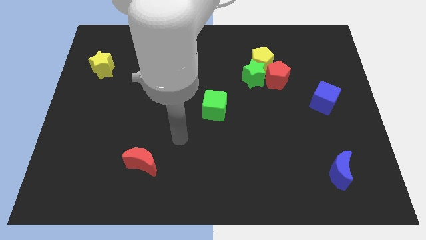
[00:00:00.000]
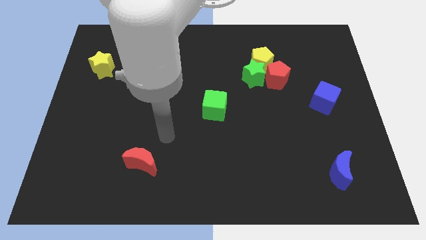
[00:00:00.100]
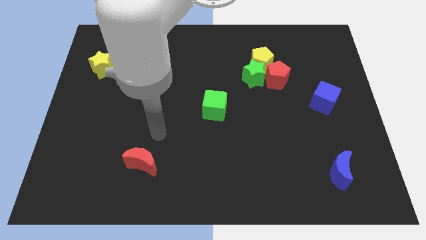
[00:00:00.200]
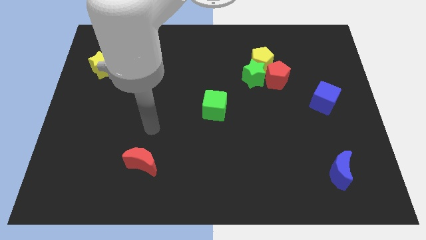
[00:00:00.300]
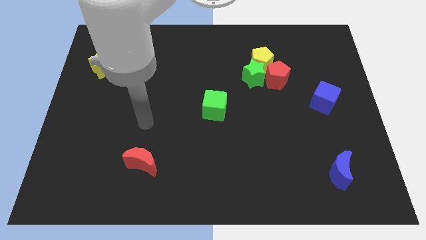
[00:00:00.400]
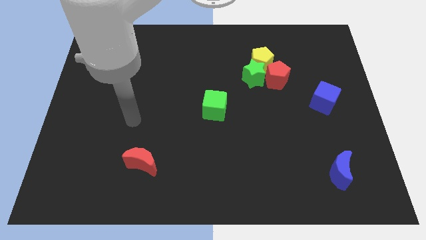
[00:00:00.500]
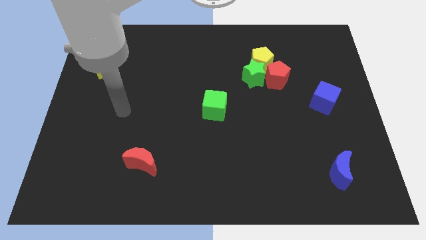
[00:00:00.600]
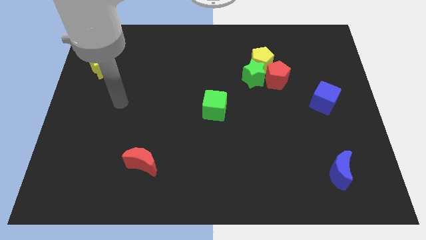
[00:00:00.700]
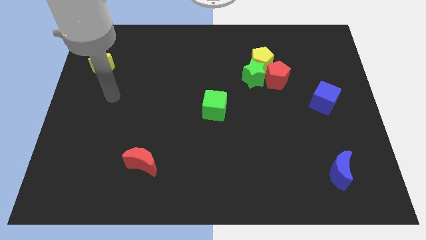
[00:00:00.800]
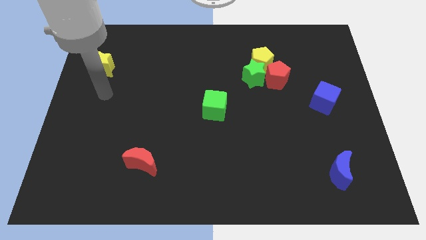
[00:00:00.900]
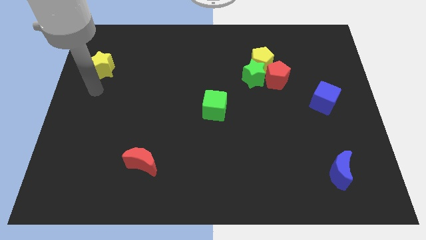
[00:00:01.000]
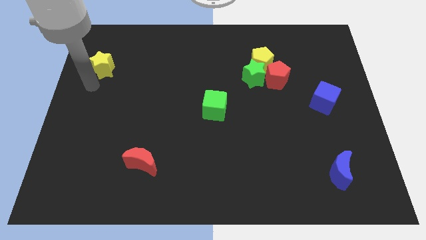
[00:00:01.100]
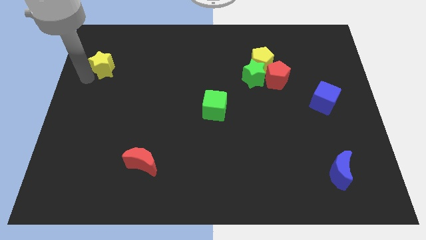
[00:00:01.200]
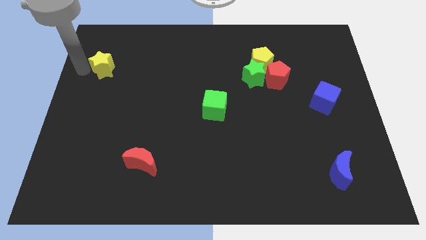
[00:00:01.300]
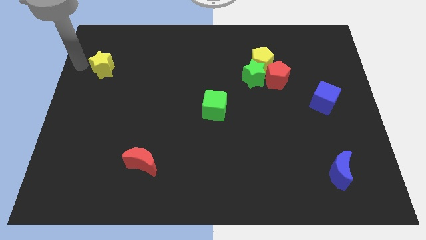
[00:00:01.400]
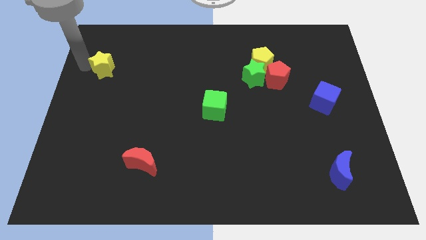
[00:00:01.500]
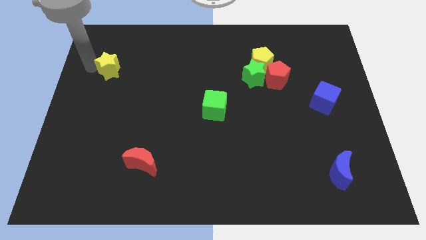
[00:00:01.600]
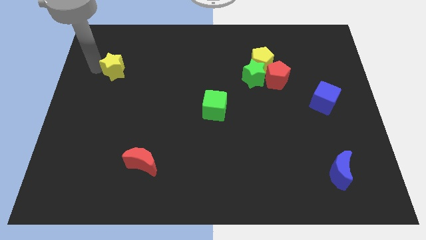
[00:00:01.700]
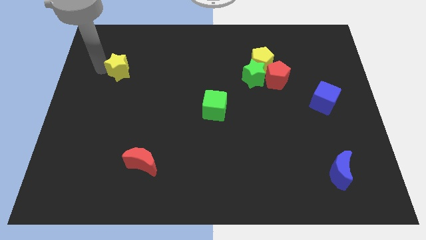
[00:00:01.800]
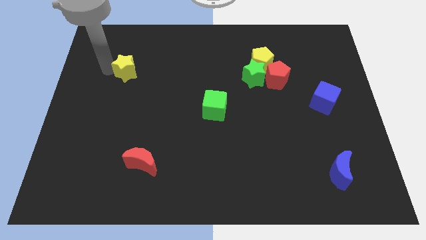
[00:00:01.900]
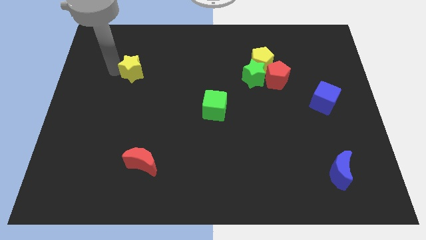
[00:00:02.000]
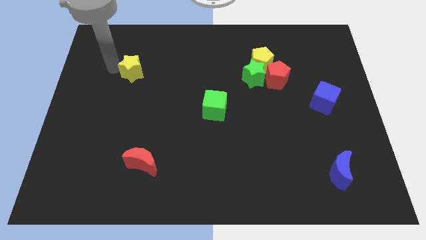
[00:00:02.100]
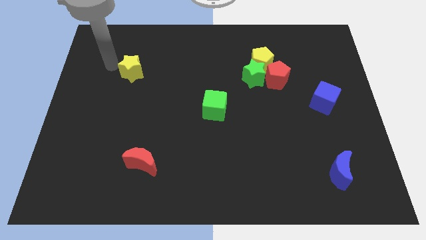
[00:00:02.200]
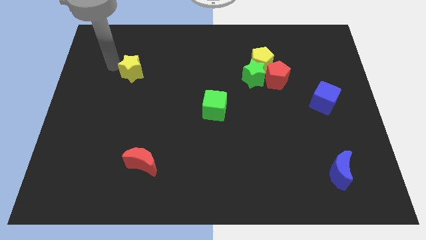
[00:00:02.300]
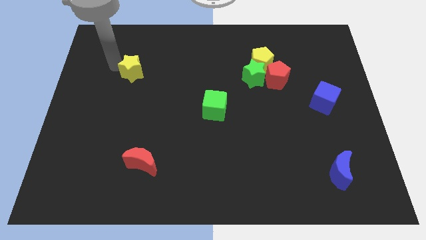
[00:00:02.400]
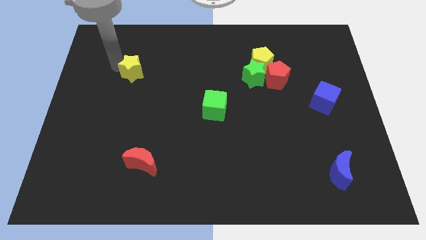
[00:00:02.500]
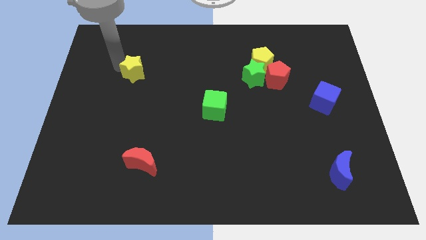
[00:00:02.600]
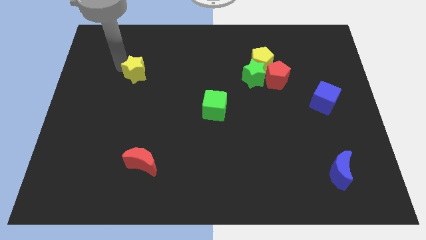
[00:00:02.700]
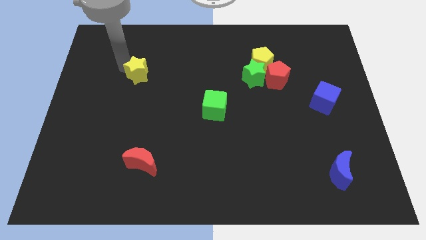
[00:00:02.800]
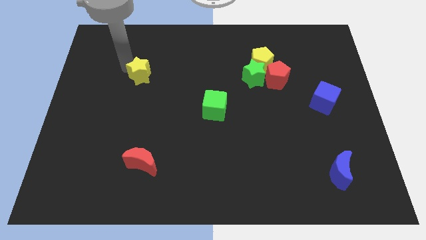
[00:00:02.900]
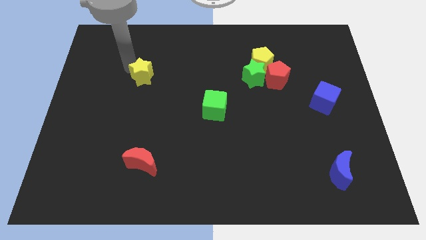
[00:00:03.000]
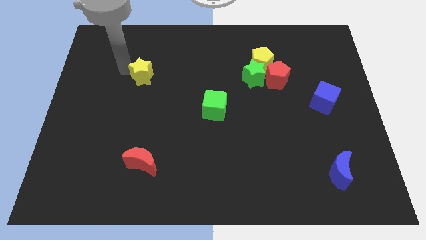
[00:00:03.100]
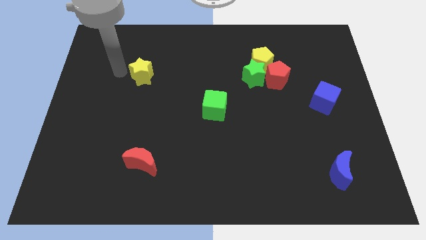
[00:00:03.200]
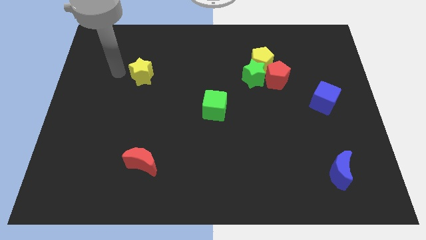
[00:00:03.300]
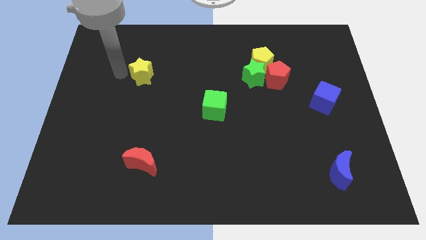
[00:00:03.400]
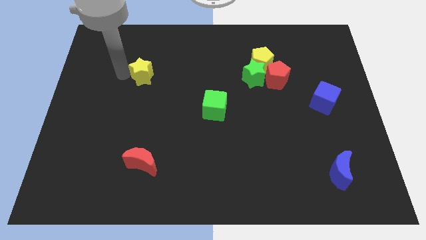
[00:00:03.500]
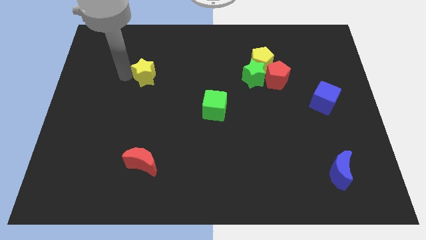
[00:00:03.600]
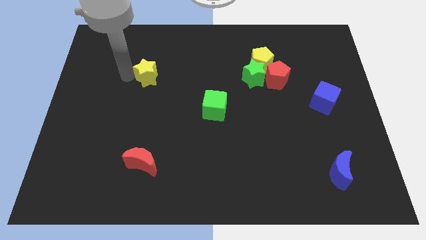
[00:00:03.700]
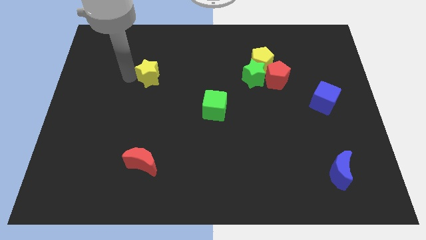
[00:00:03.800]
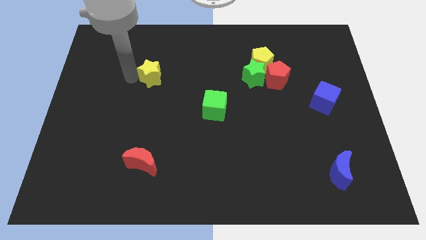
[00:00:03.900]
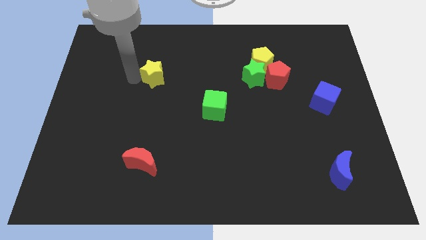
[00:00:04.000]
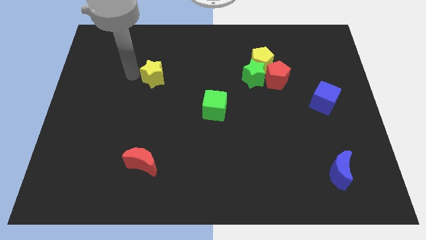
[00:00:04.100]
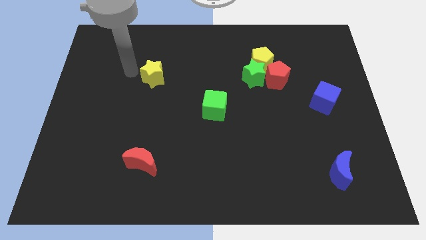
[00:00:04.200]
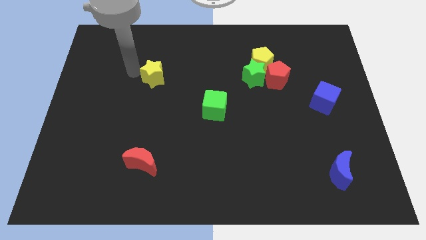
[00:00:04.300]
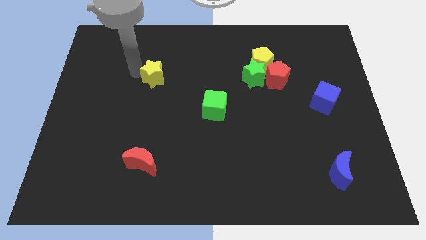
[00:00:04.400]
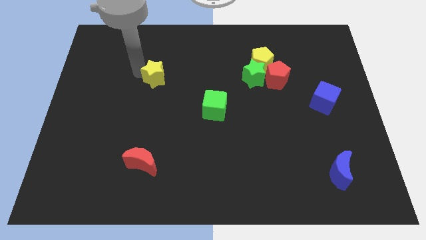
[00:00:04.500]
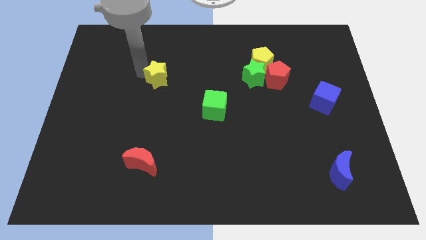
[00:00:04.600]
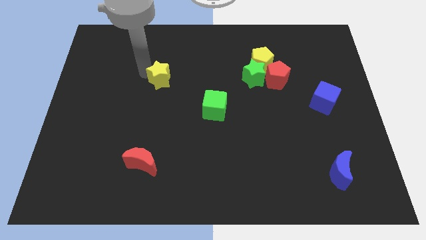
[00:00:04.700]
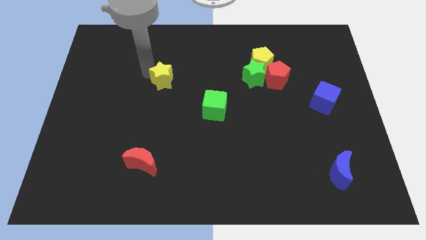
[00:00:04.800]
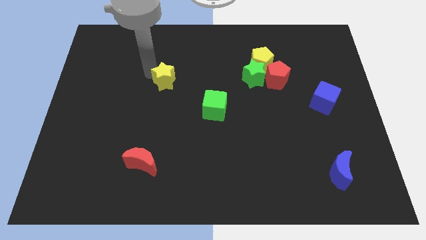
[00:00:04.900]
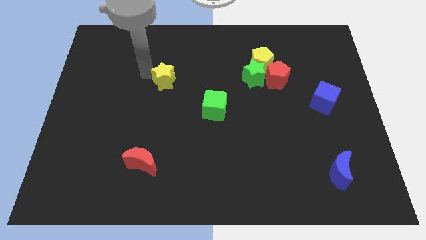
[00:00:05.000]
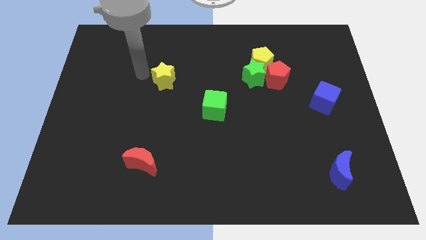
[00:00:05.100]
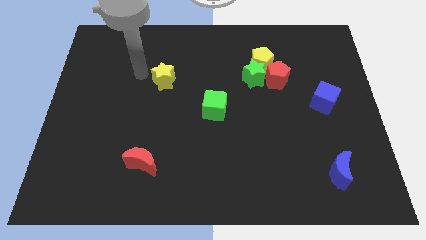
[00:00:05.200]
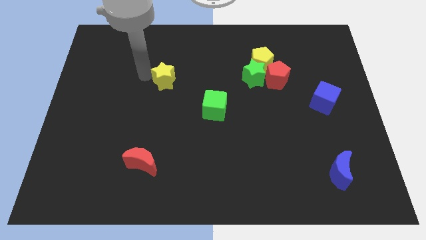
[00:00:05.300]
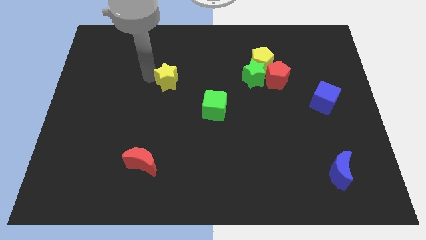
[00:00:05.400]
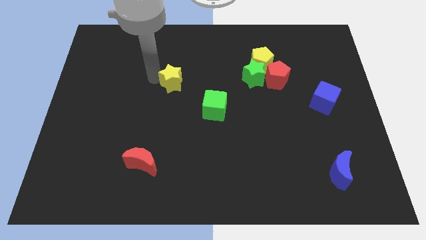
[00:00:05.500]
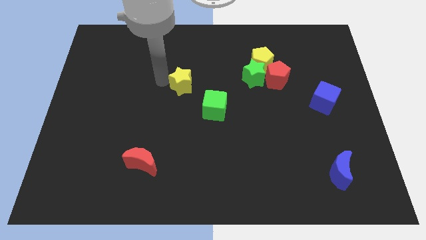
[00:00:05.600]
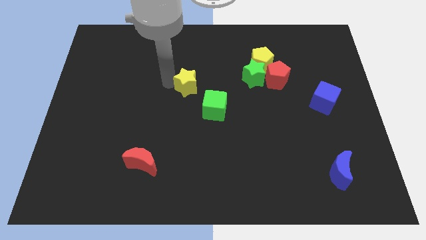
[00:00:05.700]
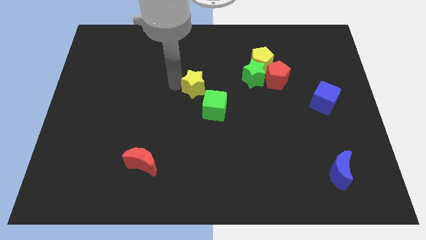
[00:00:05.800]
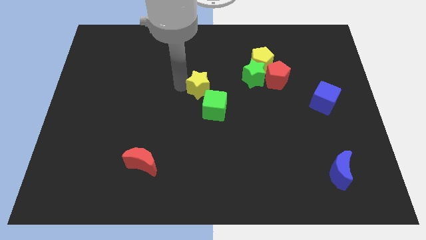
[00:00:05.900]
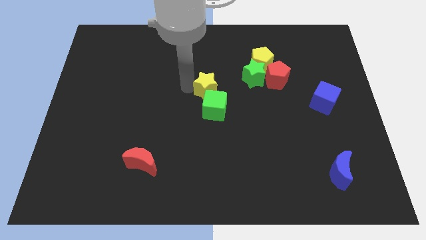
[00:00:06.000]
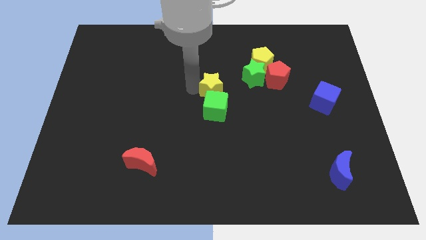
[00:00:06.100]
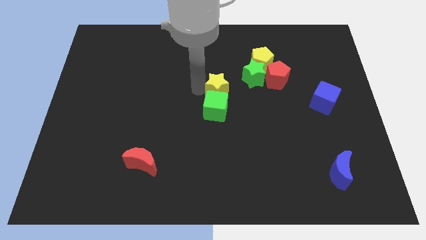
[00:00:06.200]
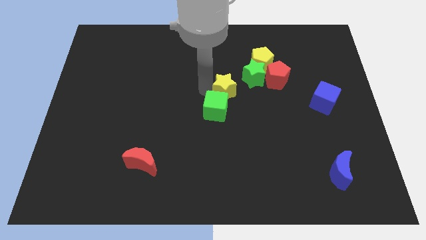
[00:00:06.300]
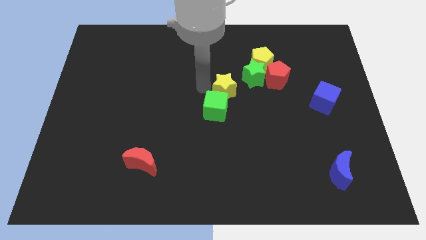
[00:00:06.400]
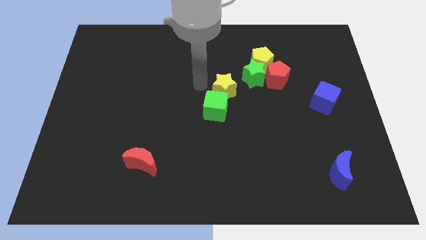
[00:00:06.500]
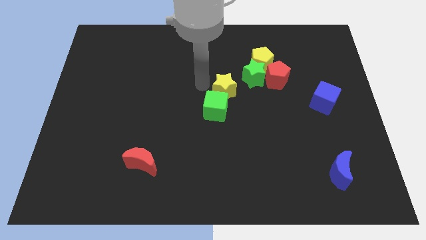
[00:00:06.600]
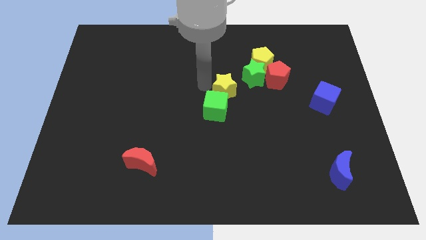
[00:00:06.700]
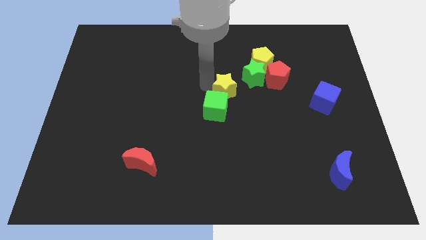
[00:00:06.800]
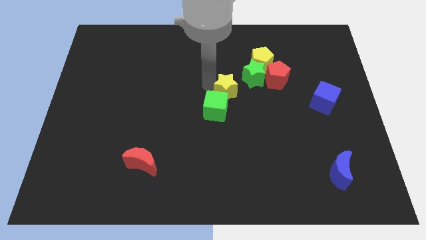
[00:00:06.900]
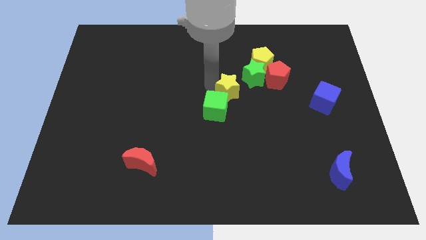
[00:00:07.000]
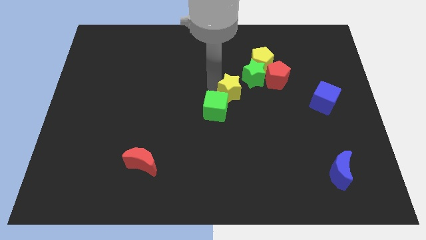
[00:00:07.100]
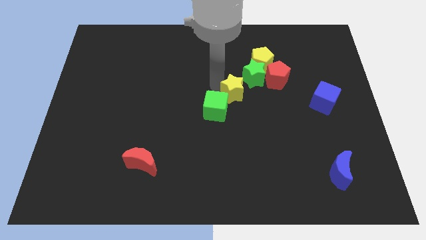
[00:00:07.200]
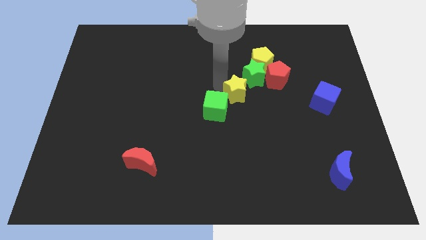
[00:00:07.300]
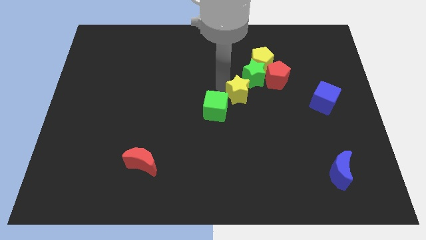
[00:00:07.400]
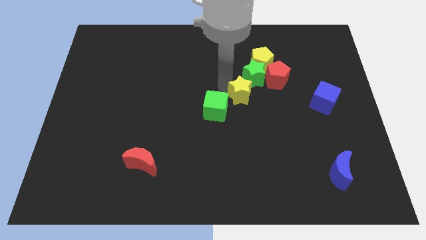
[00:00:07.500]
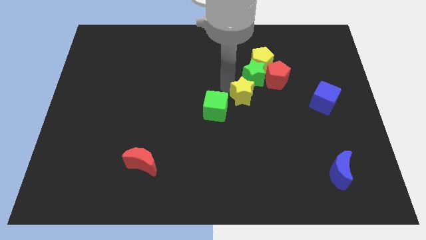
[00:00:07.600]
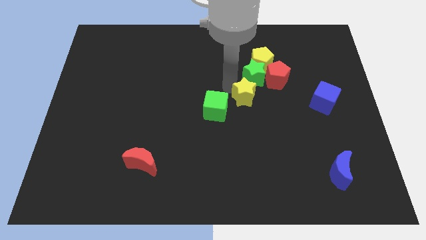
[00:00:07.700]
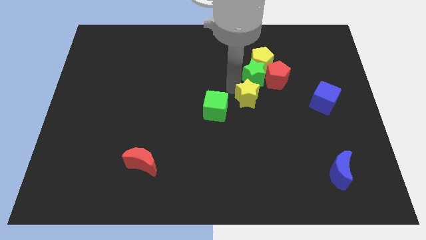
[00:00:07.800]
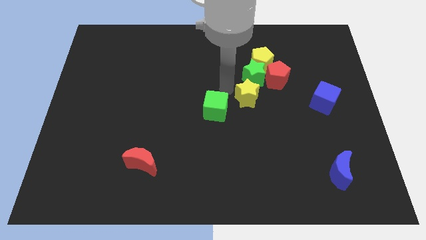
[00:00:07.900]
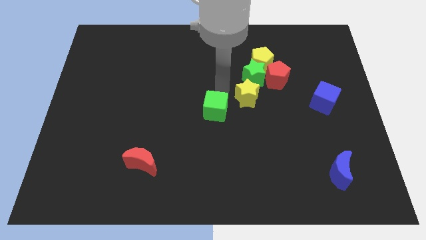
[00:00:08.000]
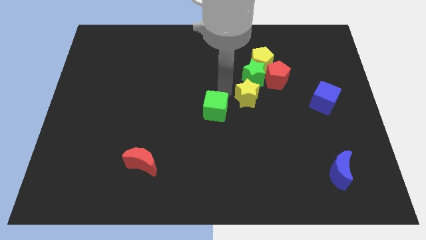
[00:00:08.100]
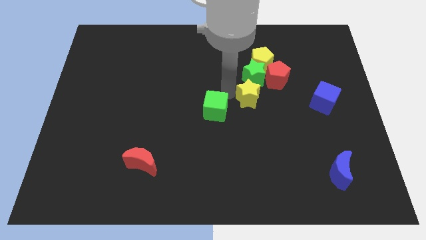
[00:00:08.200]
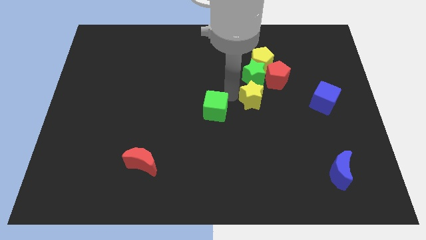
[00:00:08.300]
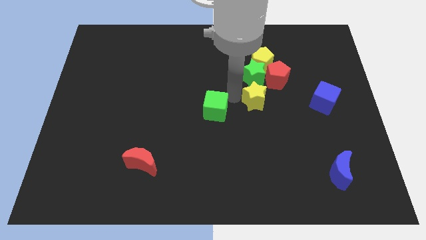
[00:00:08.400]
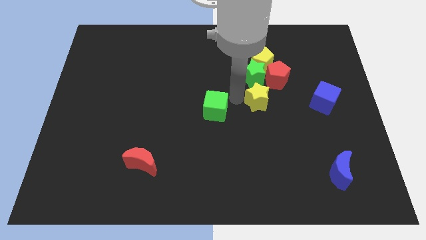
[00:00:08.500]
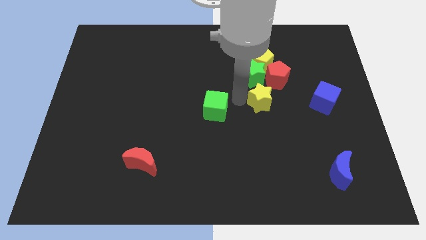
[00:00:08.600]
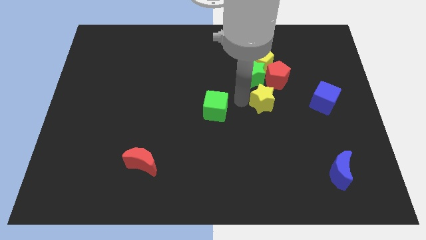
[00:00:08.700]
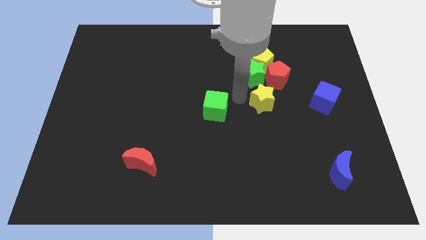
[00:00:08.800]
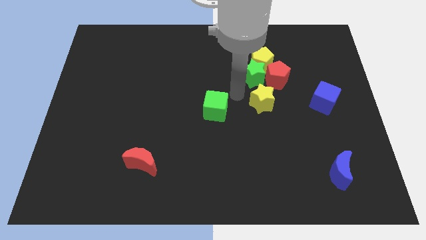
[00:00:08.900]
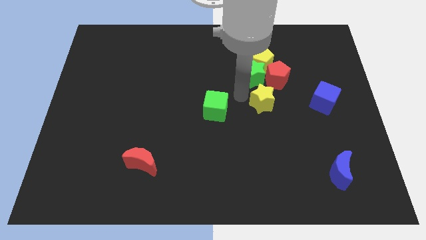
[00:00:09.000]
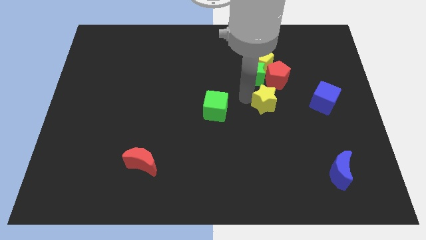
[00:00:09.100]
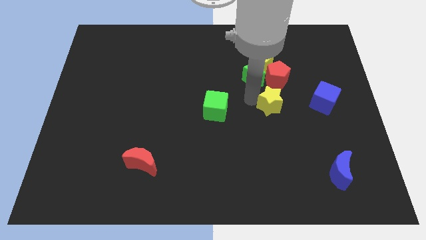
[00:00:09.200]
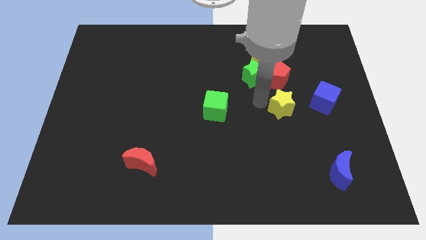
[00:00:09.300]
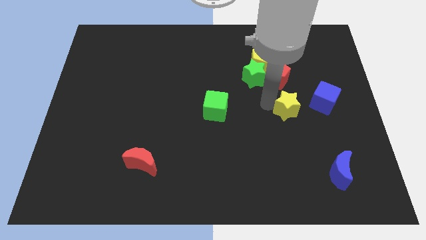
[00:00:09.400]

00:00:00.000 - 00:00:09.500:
move the yellow star to the bottom left side of the blue cube
